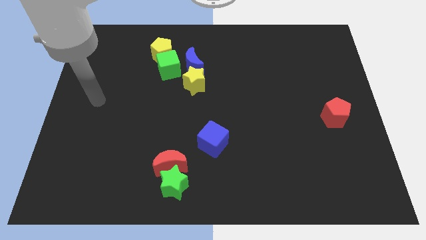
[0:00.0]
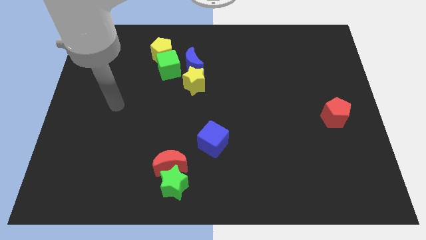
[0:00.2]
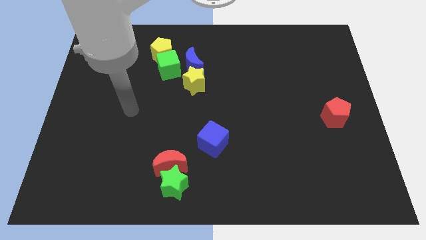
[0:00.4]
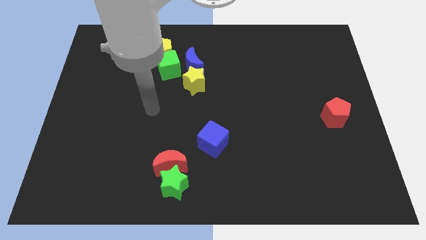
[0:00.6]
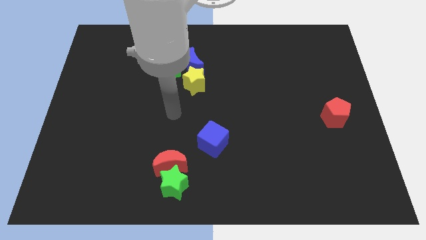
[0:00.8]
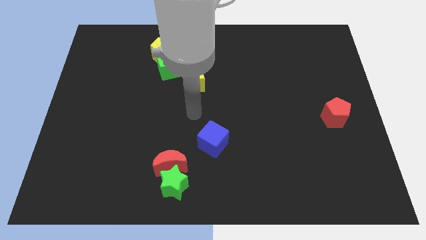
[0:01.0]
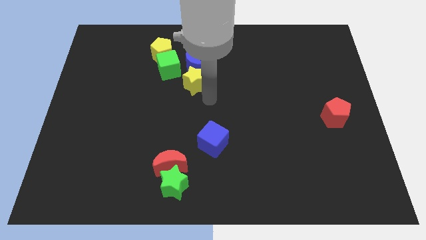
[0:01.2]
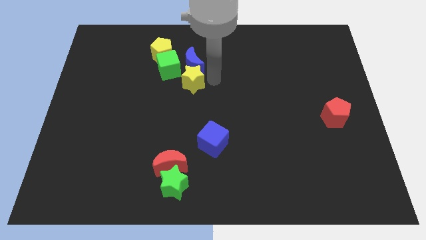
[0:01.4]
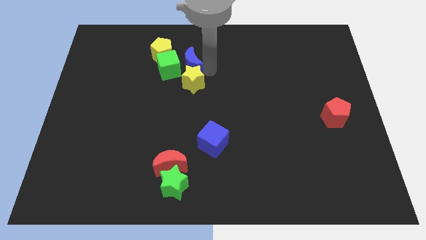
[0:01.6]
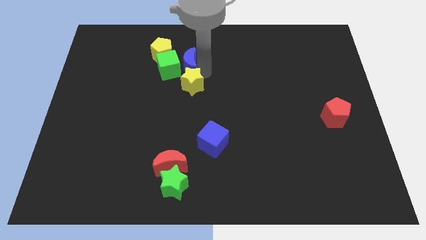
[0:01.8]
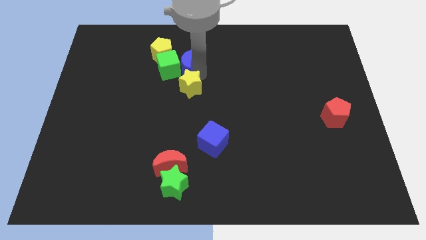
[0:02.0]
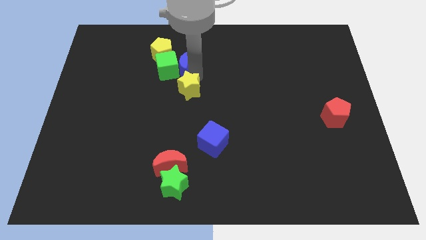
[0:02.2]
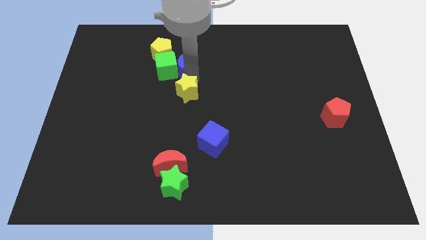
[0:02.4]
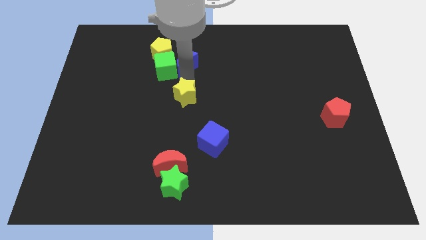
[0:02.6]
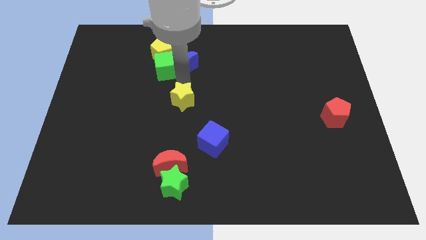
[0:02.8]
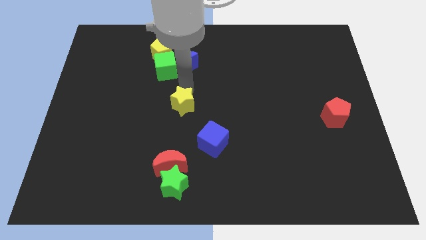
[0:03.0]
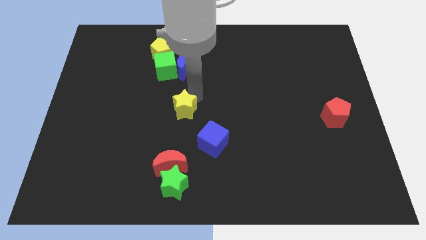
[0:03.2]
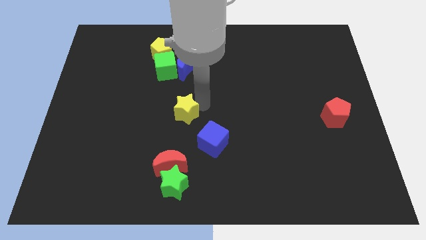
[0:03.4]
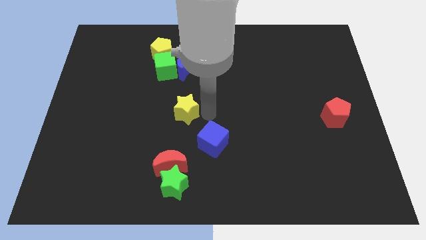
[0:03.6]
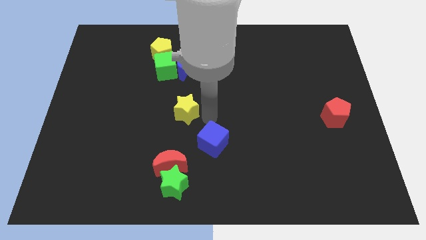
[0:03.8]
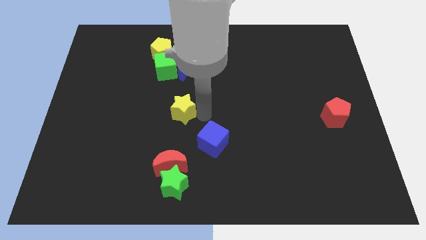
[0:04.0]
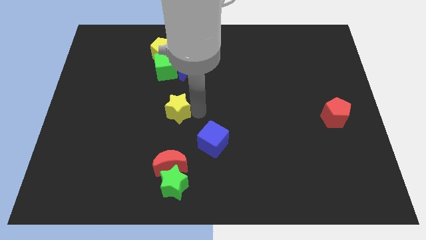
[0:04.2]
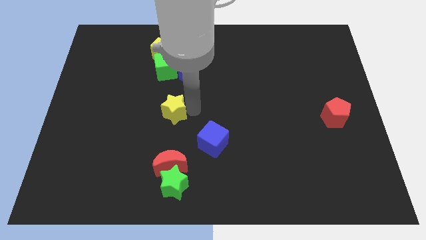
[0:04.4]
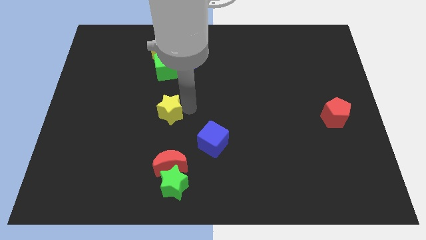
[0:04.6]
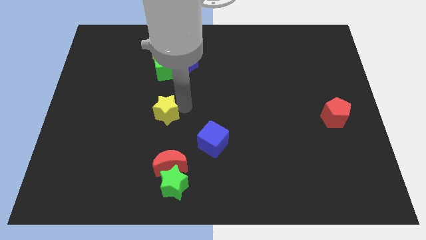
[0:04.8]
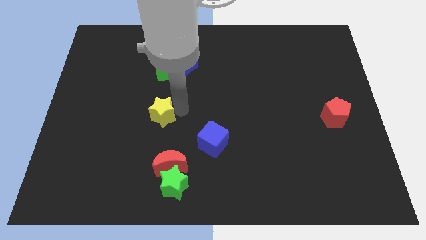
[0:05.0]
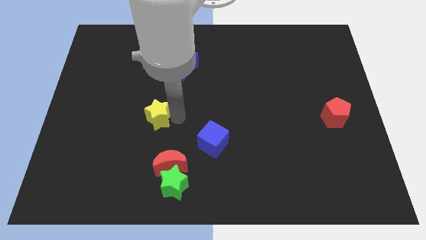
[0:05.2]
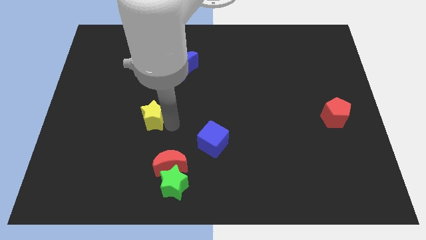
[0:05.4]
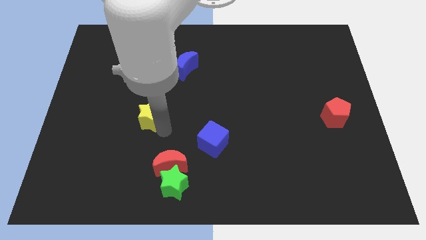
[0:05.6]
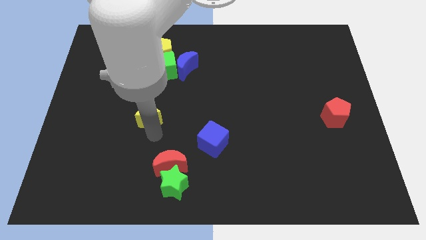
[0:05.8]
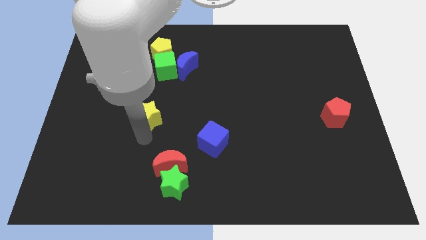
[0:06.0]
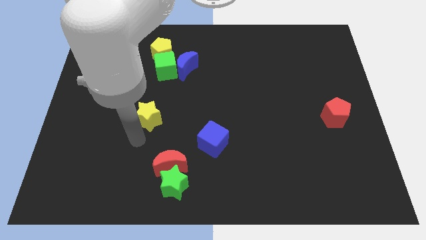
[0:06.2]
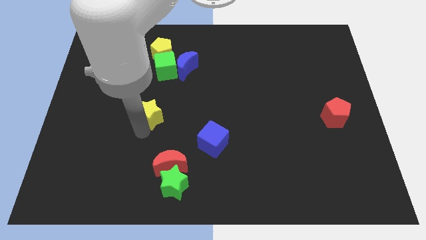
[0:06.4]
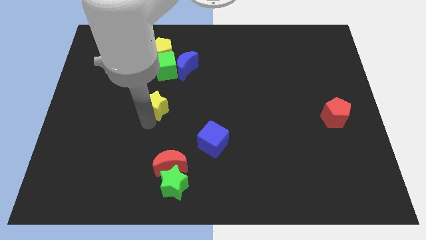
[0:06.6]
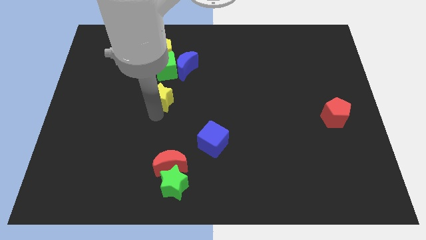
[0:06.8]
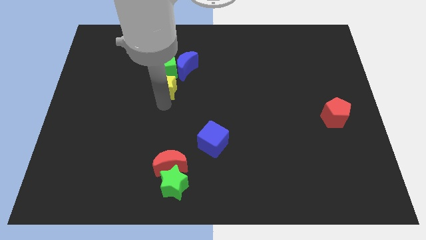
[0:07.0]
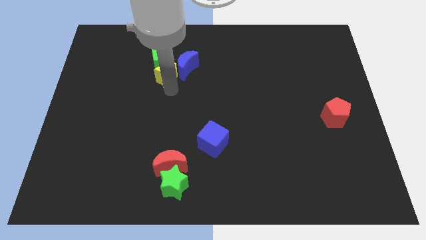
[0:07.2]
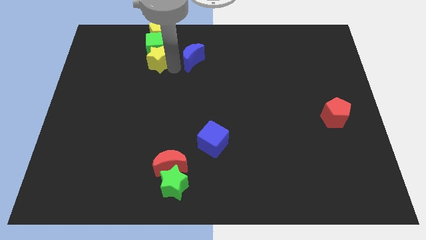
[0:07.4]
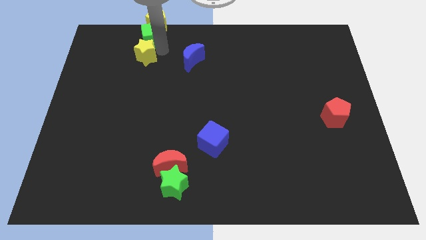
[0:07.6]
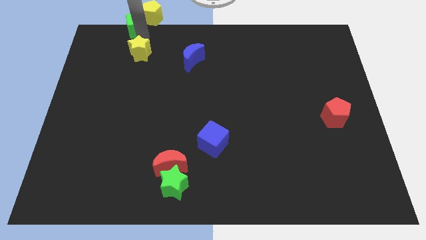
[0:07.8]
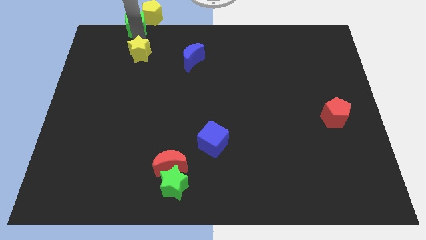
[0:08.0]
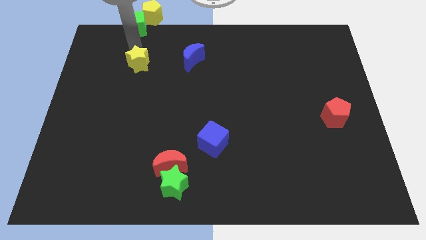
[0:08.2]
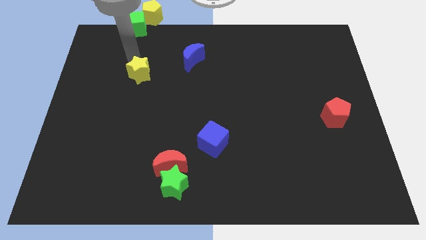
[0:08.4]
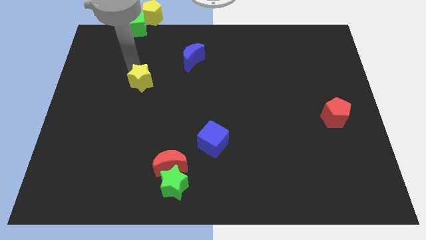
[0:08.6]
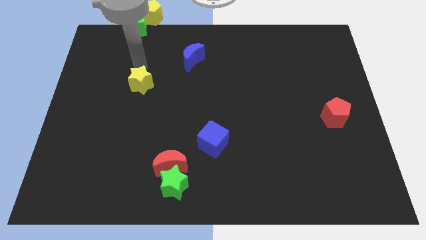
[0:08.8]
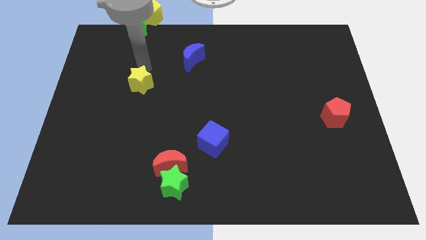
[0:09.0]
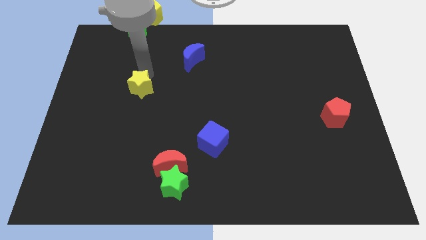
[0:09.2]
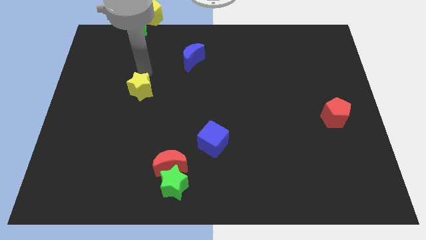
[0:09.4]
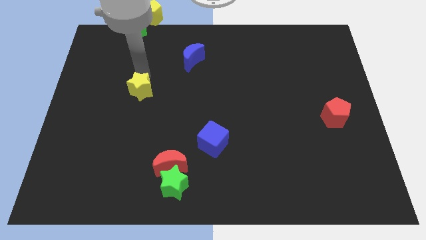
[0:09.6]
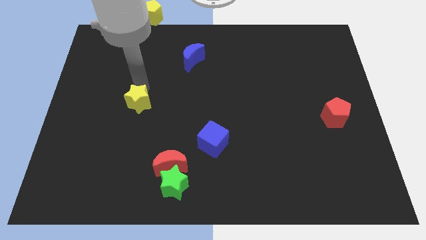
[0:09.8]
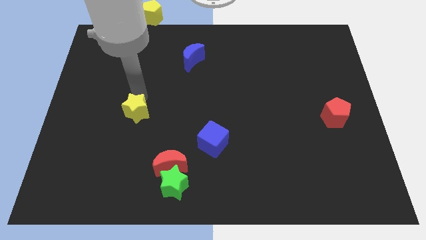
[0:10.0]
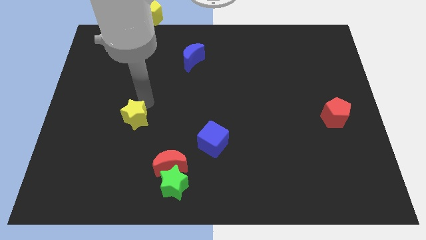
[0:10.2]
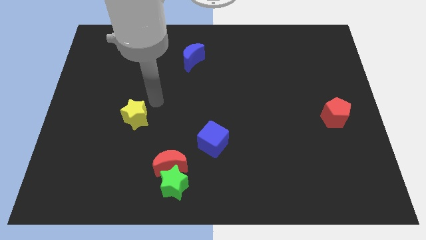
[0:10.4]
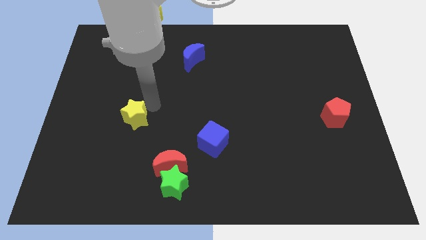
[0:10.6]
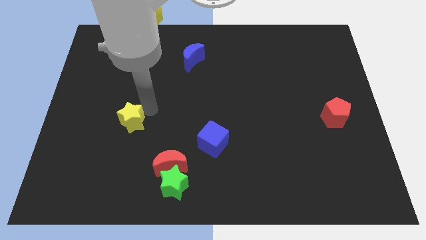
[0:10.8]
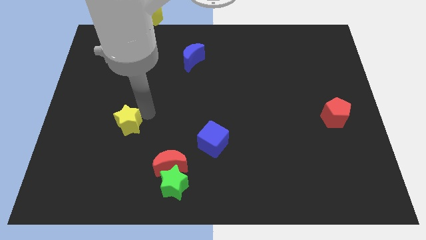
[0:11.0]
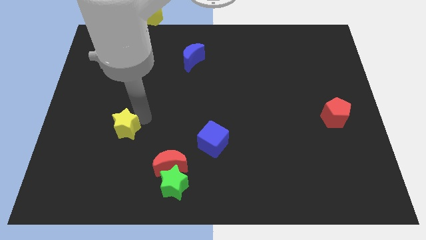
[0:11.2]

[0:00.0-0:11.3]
push the yellow star down and to the left diagonally

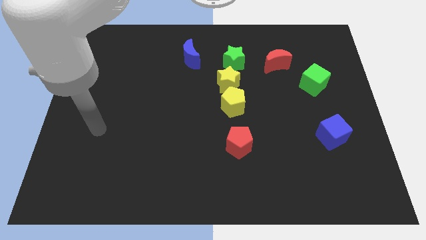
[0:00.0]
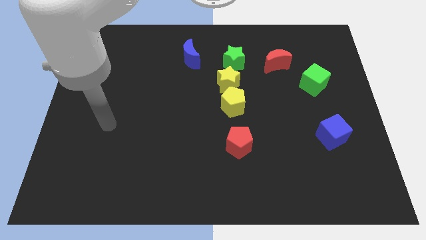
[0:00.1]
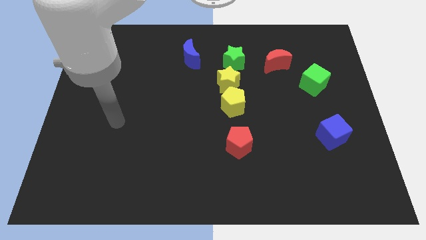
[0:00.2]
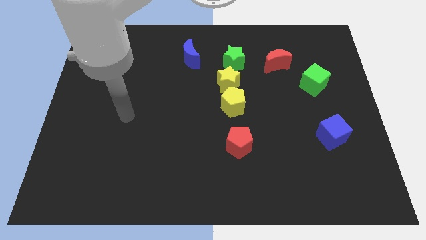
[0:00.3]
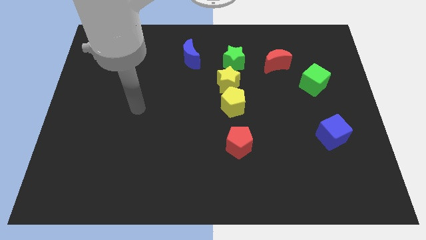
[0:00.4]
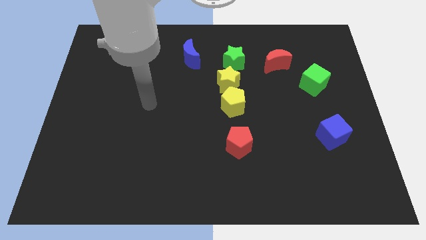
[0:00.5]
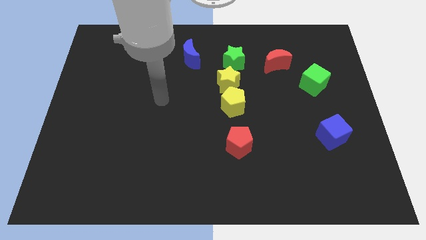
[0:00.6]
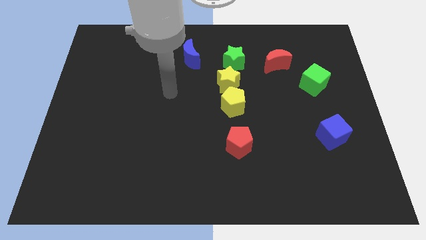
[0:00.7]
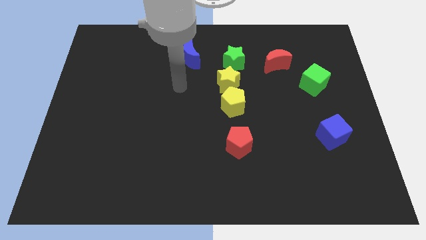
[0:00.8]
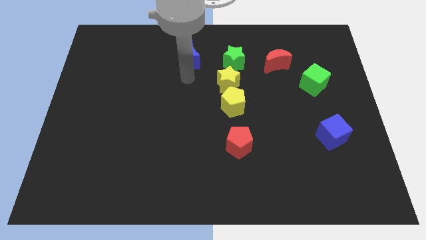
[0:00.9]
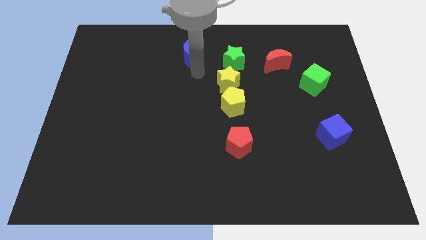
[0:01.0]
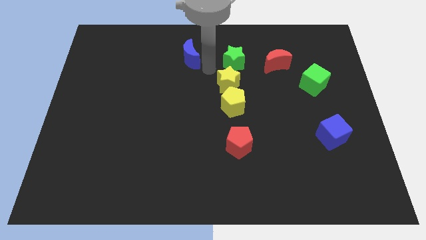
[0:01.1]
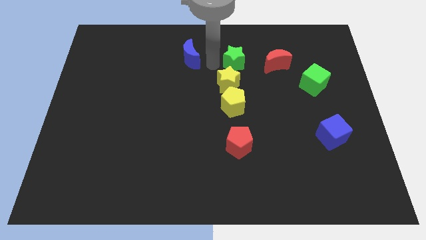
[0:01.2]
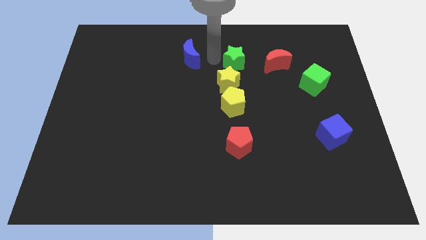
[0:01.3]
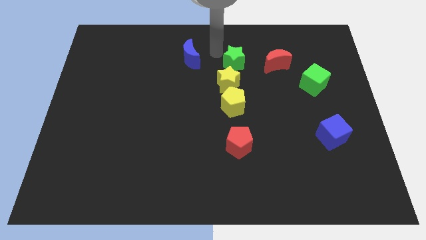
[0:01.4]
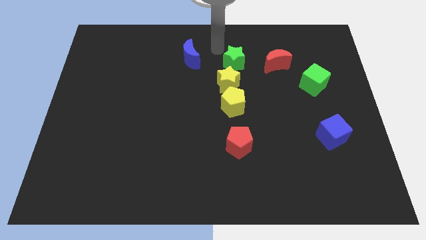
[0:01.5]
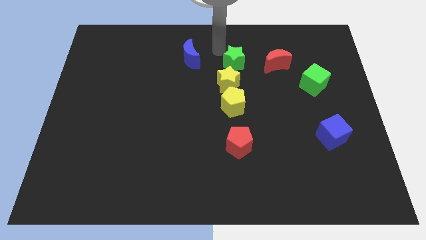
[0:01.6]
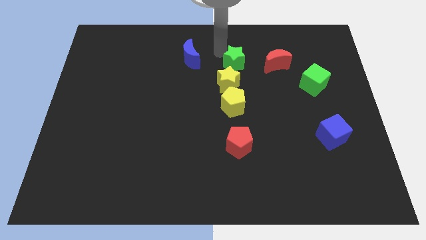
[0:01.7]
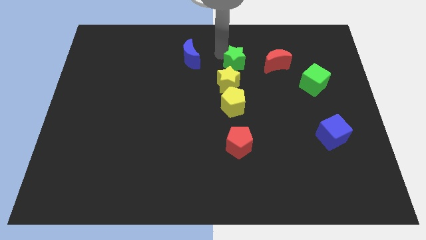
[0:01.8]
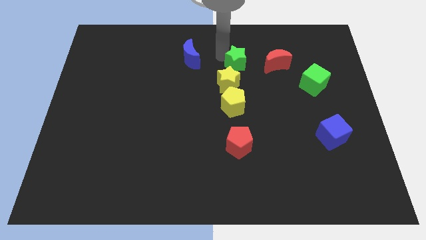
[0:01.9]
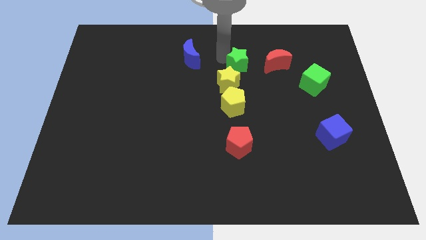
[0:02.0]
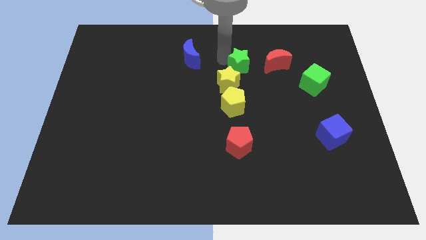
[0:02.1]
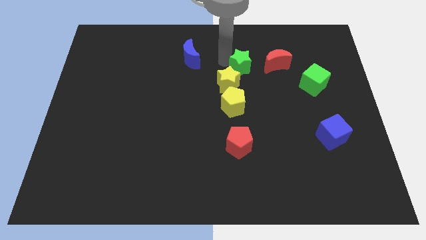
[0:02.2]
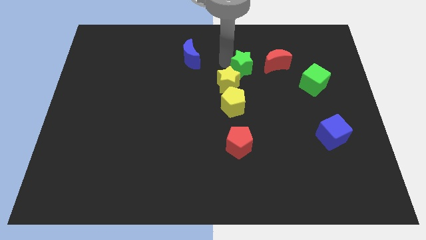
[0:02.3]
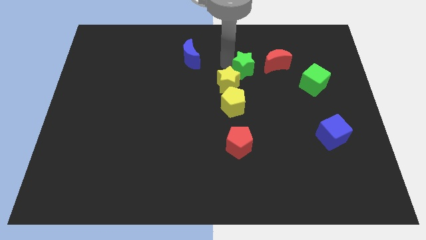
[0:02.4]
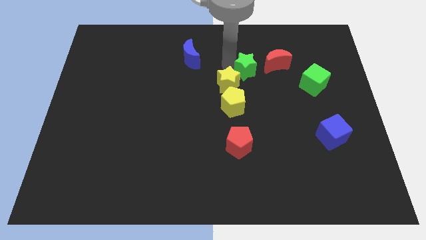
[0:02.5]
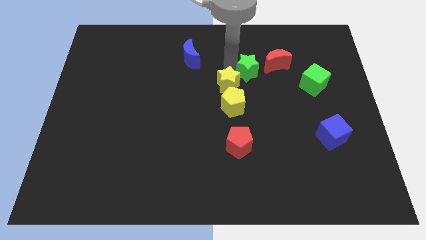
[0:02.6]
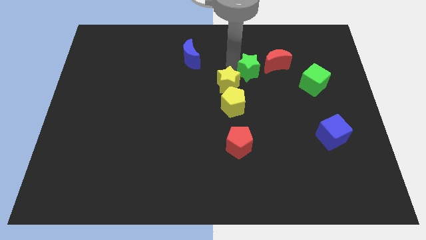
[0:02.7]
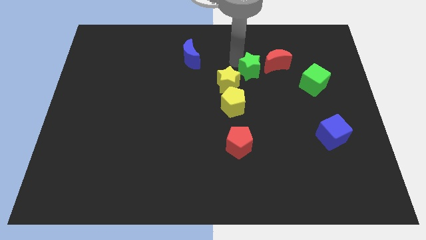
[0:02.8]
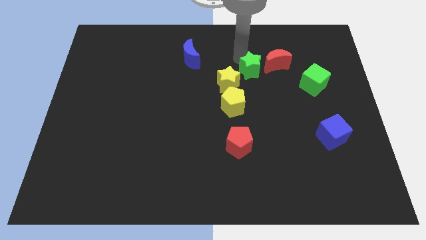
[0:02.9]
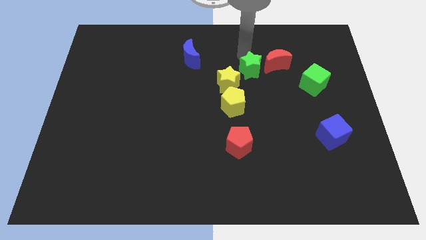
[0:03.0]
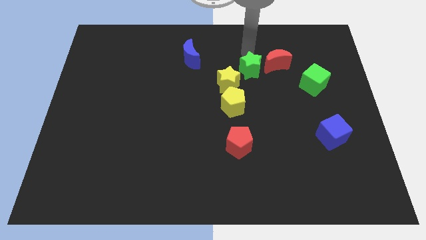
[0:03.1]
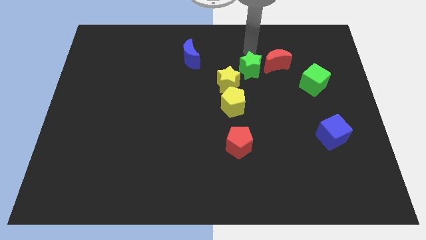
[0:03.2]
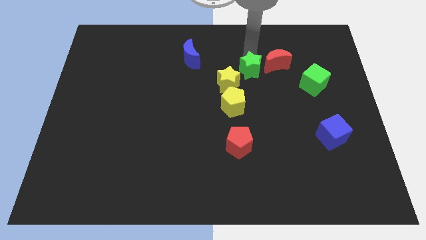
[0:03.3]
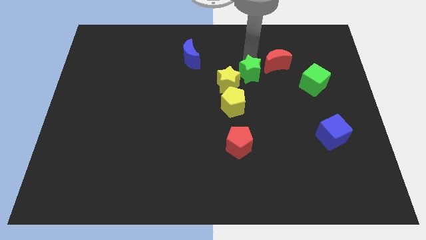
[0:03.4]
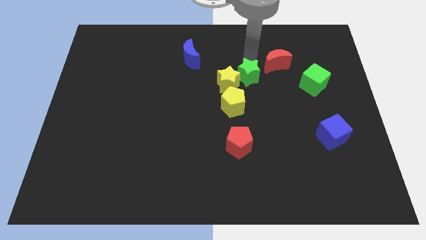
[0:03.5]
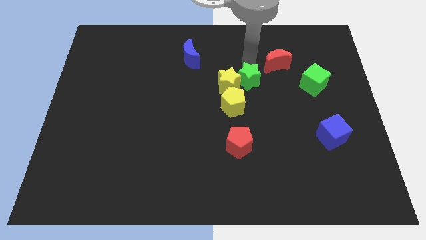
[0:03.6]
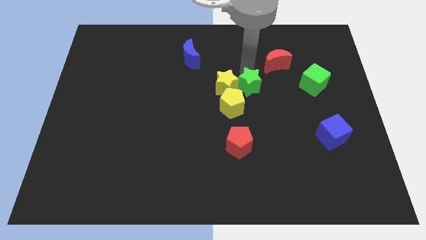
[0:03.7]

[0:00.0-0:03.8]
move the green star a little downwards
